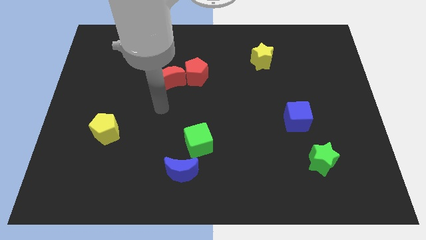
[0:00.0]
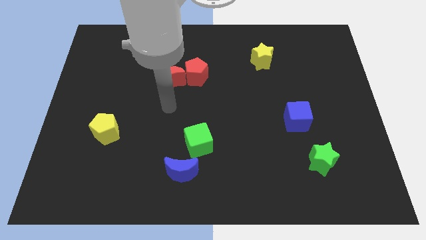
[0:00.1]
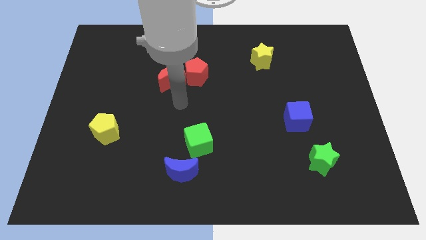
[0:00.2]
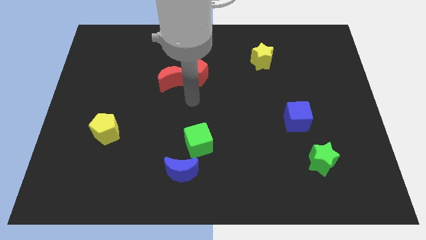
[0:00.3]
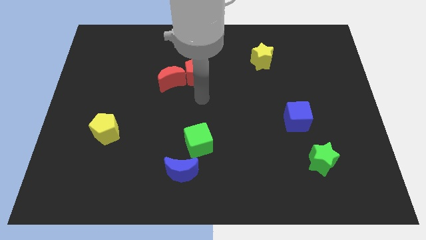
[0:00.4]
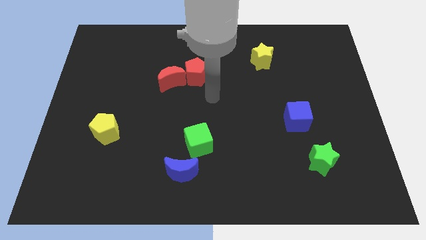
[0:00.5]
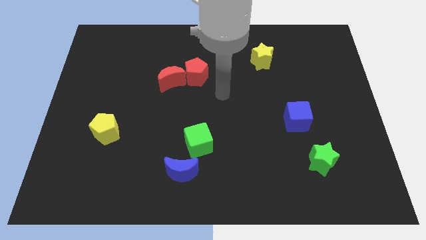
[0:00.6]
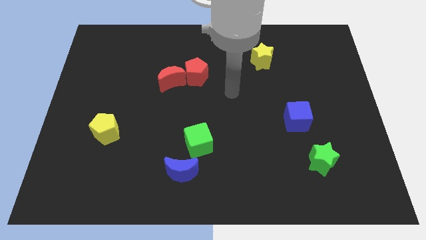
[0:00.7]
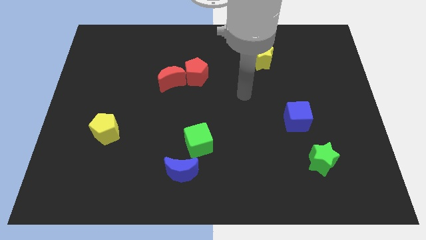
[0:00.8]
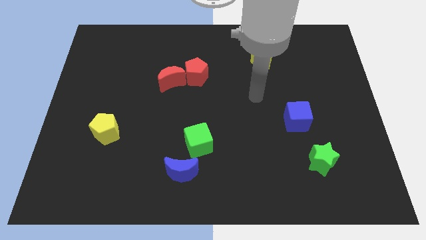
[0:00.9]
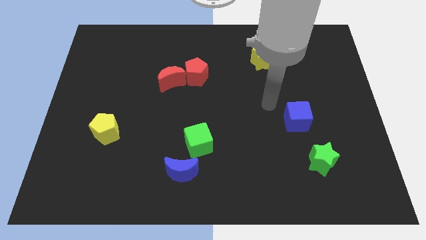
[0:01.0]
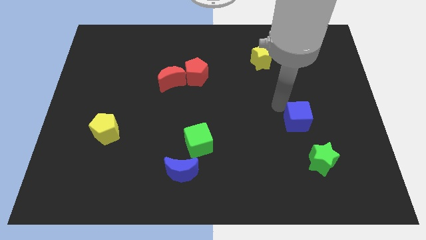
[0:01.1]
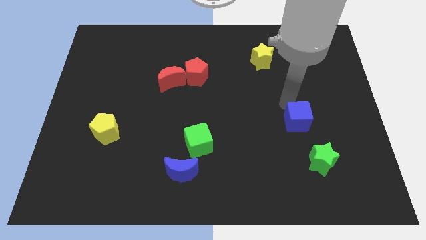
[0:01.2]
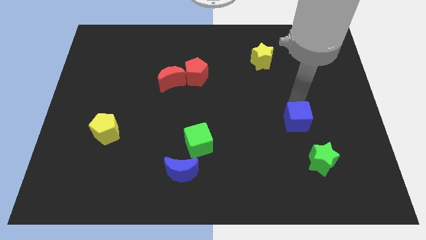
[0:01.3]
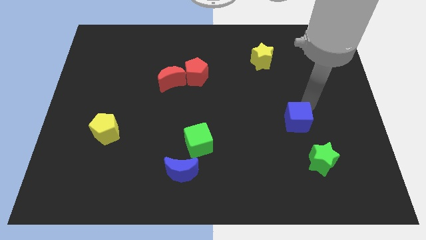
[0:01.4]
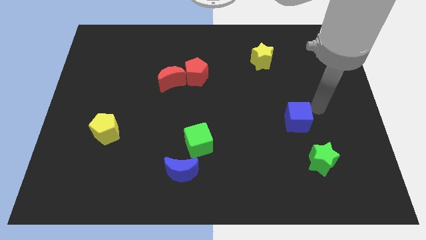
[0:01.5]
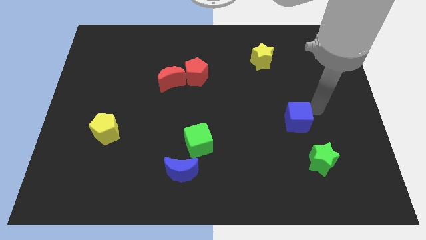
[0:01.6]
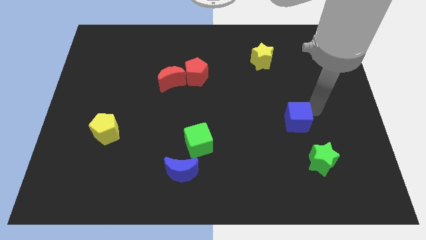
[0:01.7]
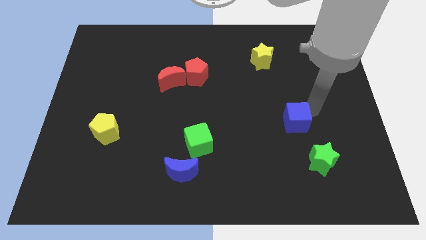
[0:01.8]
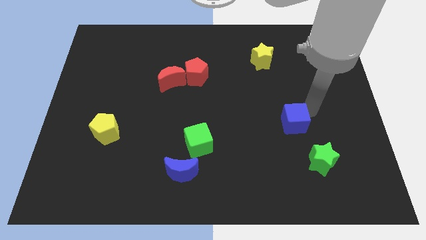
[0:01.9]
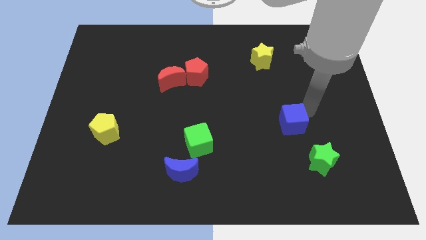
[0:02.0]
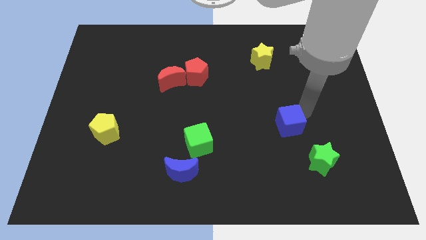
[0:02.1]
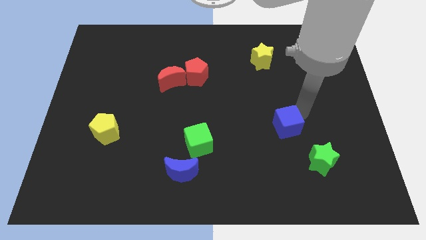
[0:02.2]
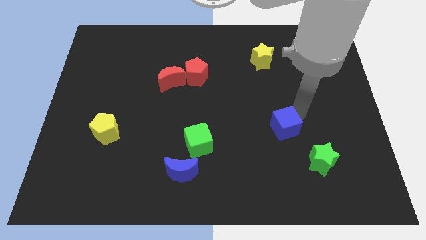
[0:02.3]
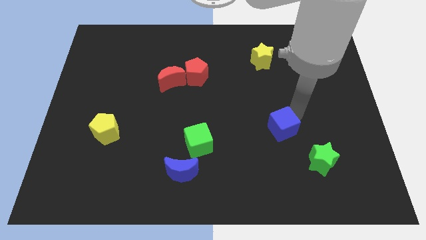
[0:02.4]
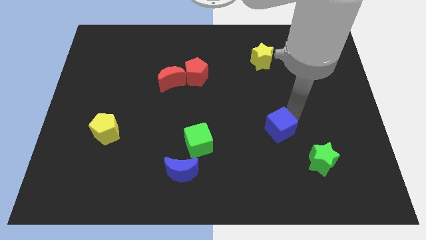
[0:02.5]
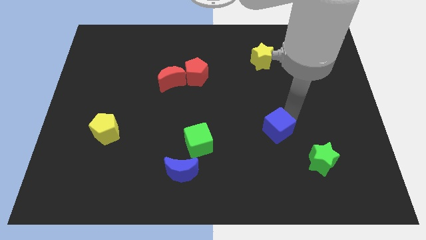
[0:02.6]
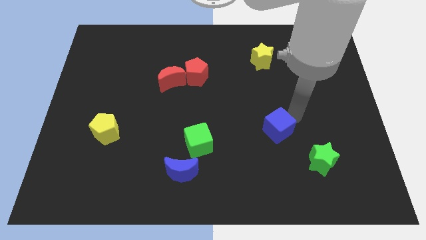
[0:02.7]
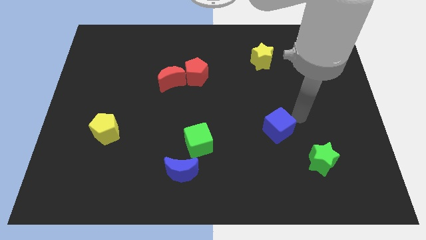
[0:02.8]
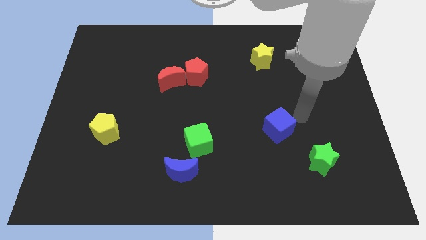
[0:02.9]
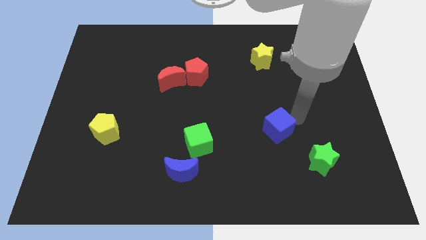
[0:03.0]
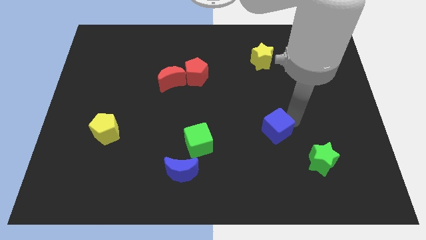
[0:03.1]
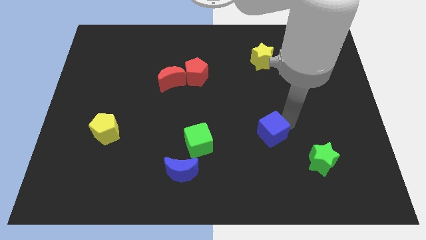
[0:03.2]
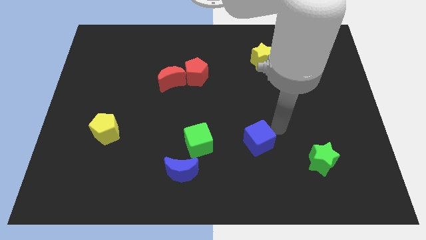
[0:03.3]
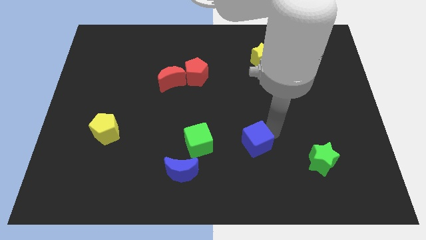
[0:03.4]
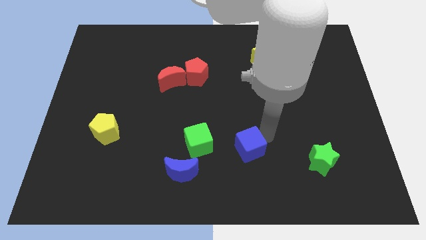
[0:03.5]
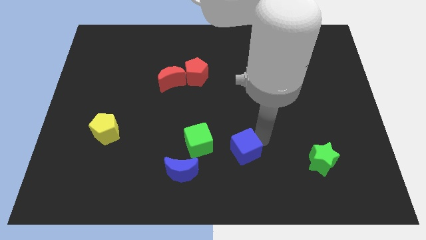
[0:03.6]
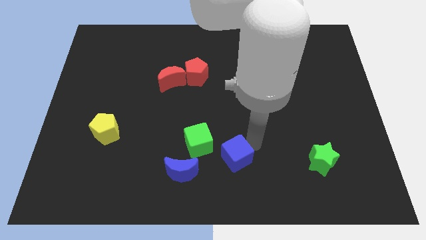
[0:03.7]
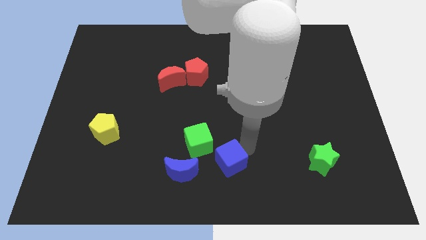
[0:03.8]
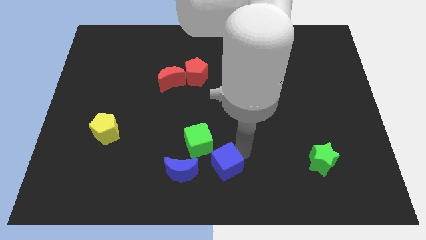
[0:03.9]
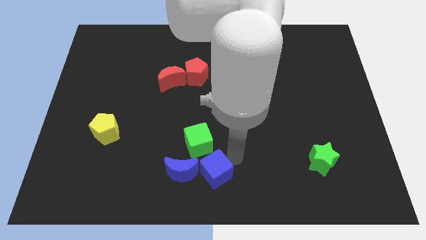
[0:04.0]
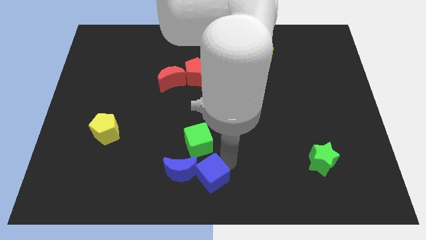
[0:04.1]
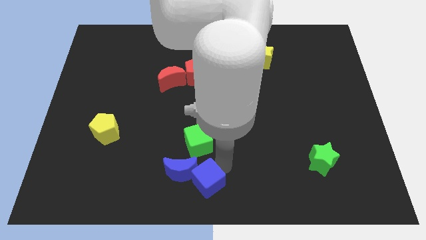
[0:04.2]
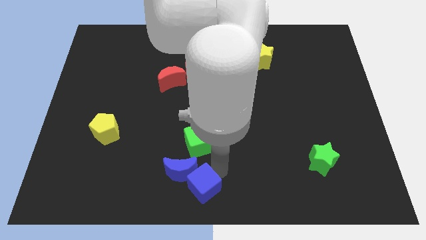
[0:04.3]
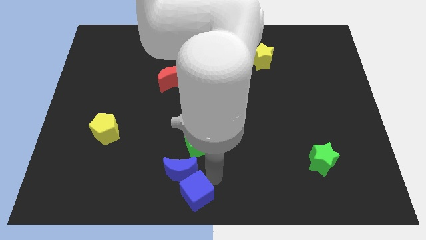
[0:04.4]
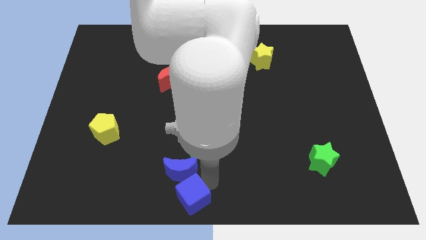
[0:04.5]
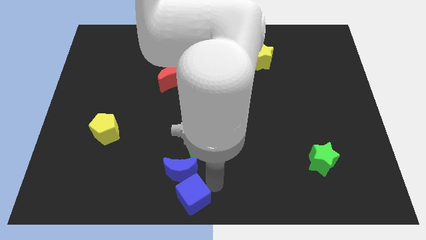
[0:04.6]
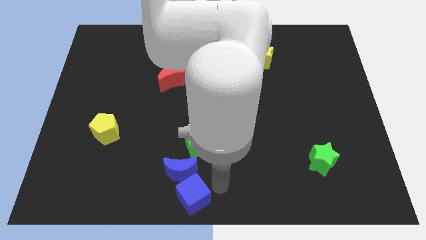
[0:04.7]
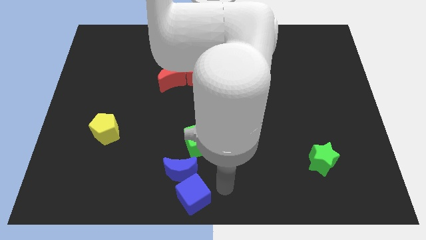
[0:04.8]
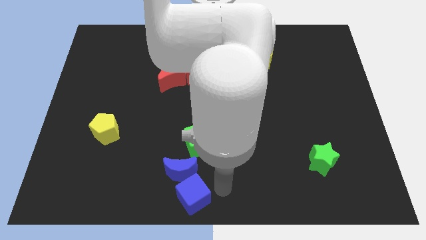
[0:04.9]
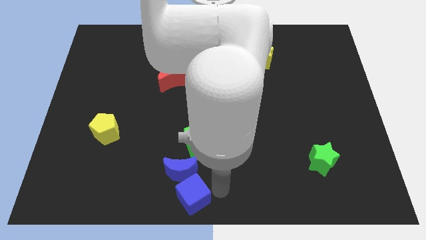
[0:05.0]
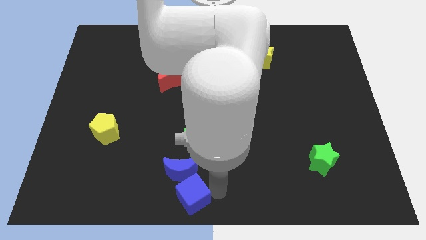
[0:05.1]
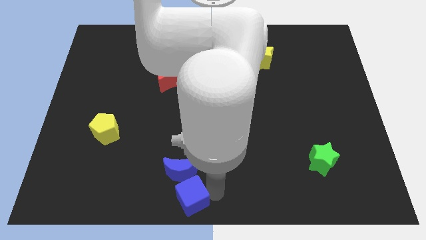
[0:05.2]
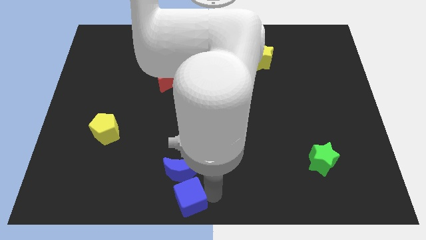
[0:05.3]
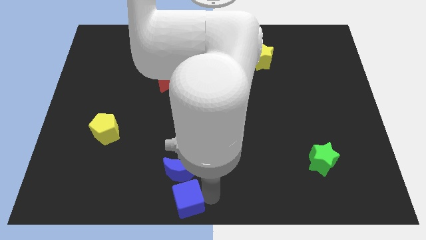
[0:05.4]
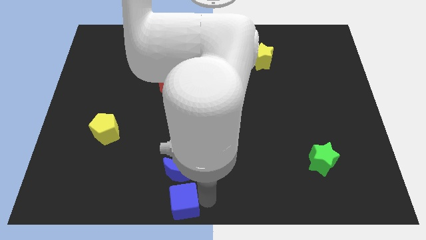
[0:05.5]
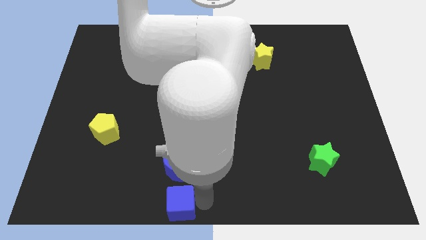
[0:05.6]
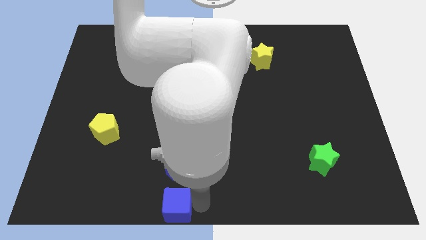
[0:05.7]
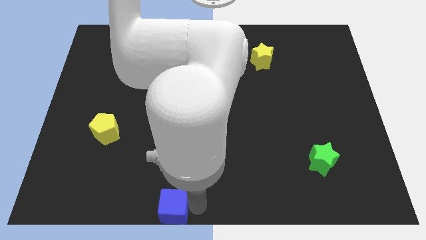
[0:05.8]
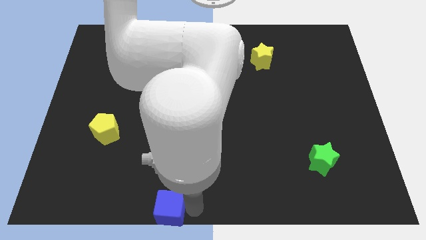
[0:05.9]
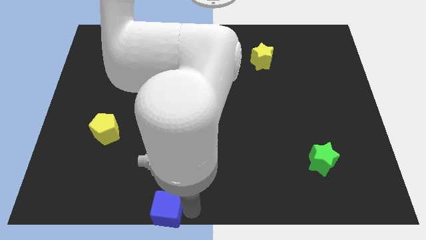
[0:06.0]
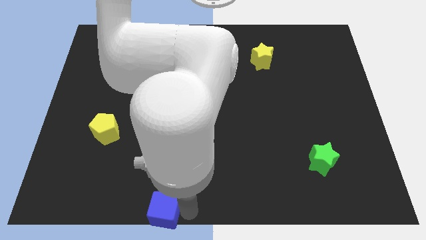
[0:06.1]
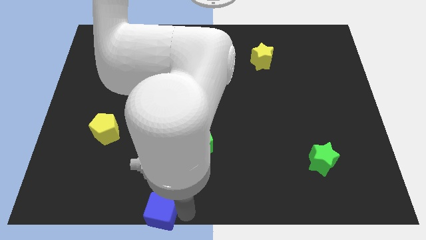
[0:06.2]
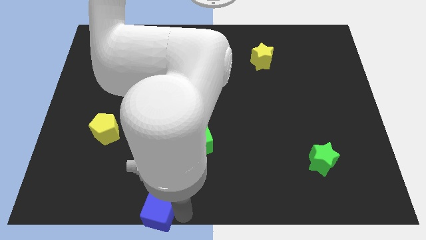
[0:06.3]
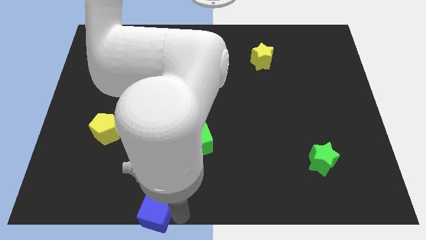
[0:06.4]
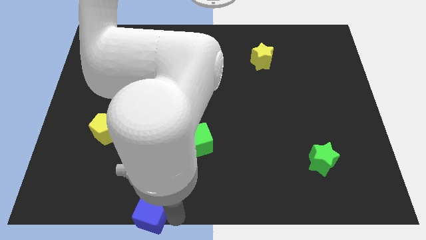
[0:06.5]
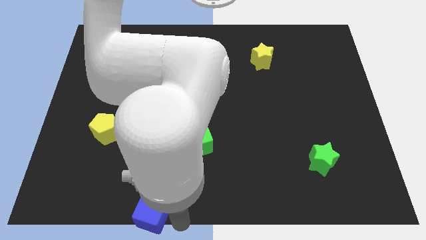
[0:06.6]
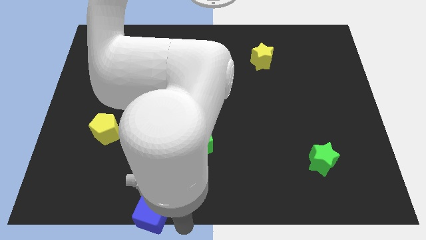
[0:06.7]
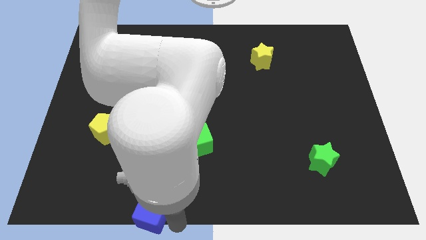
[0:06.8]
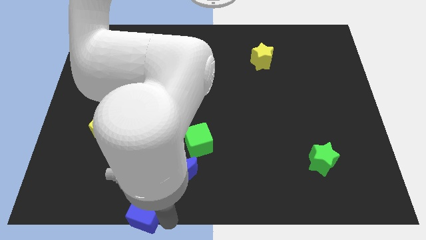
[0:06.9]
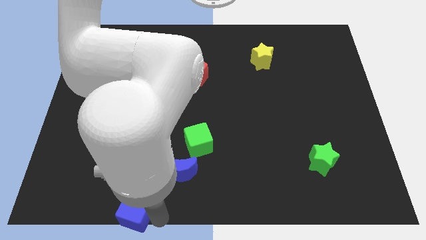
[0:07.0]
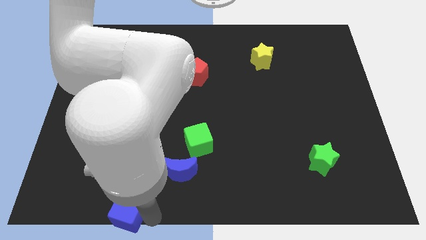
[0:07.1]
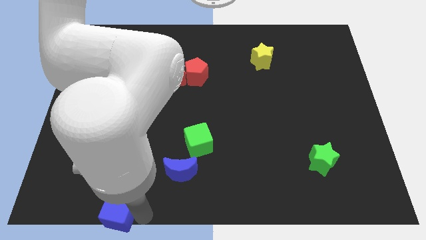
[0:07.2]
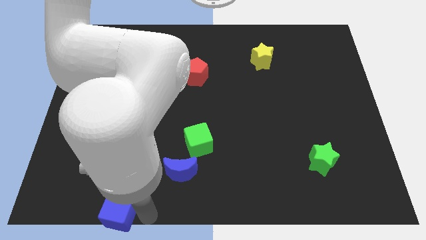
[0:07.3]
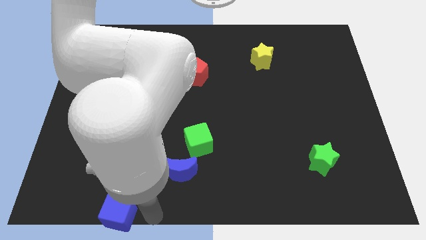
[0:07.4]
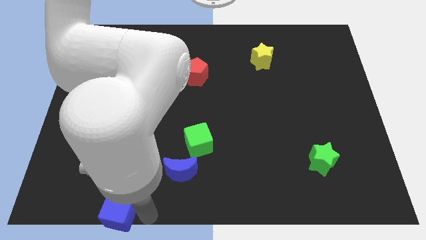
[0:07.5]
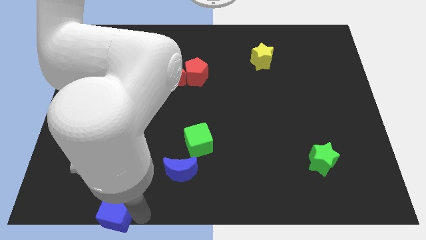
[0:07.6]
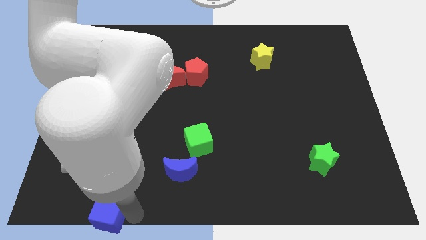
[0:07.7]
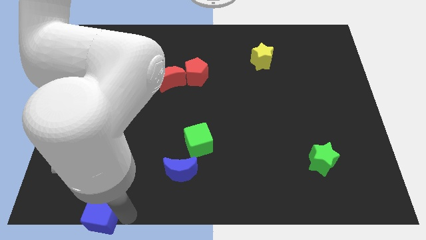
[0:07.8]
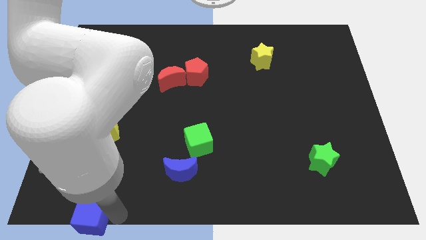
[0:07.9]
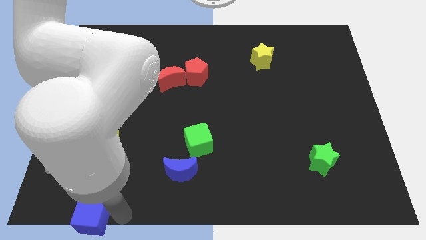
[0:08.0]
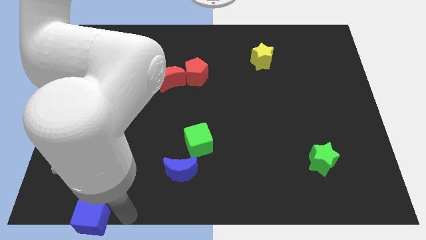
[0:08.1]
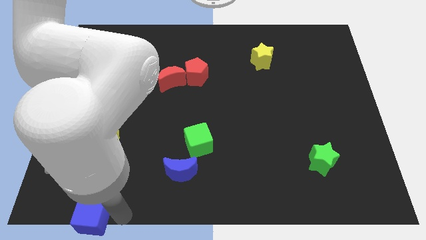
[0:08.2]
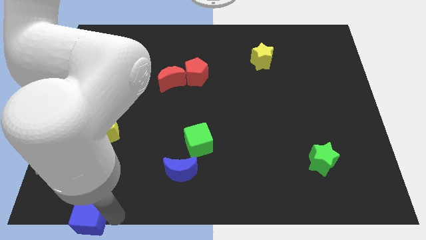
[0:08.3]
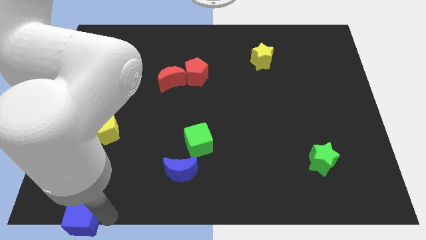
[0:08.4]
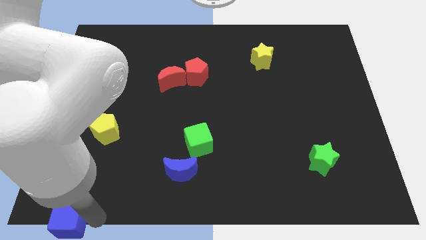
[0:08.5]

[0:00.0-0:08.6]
move the blue cube to the bottom left of the board
